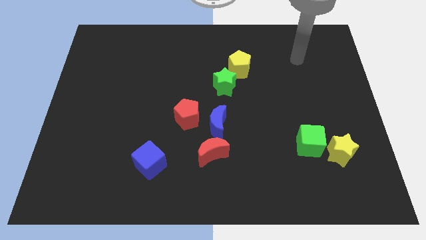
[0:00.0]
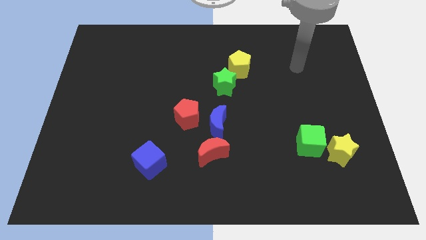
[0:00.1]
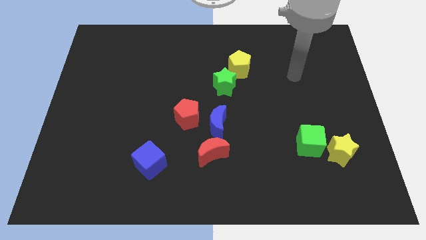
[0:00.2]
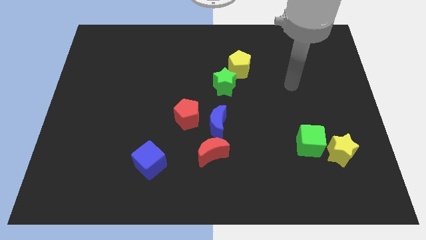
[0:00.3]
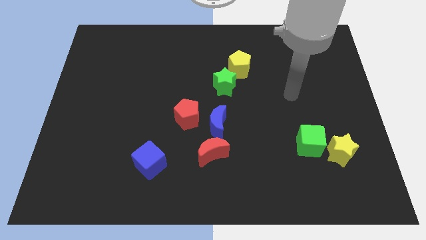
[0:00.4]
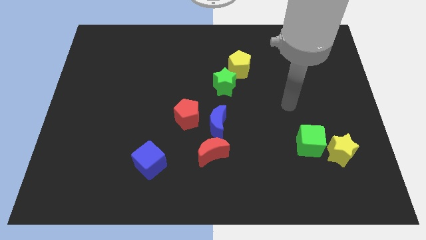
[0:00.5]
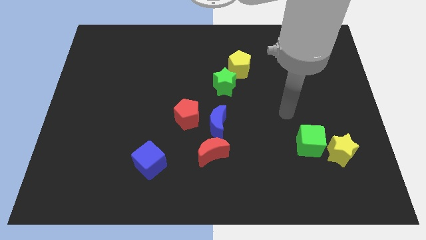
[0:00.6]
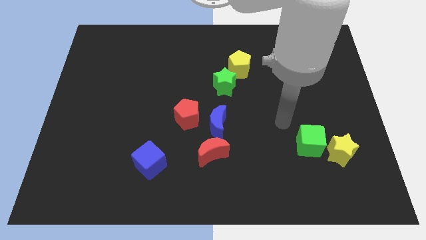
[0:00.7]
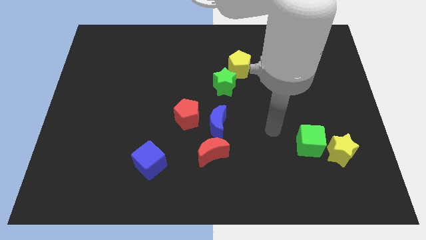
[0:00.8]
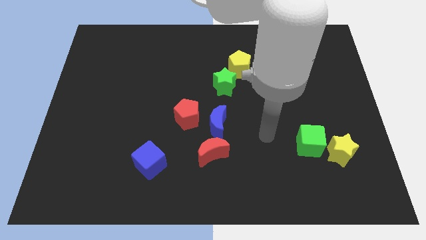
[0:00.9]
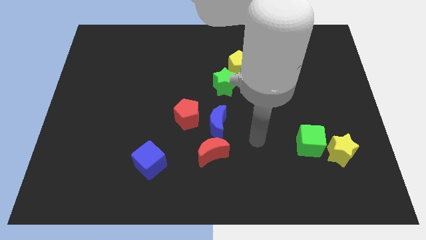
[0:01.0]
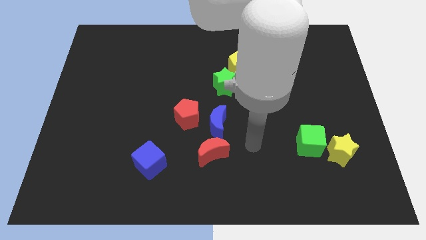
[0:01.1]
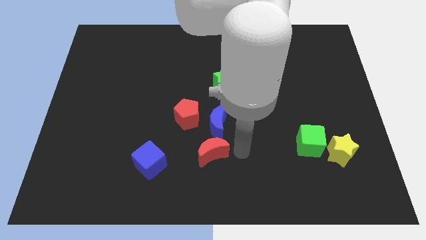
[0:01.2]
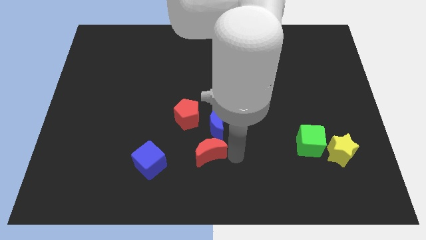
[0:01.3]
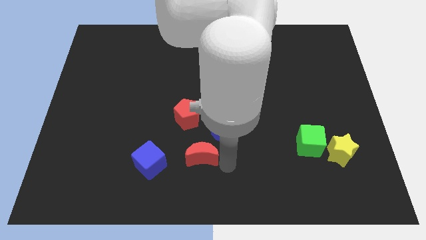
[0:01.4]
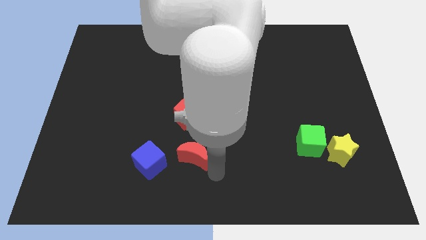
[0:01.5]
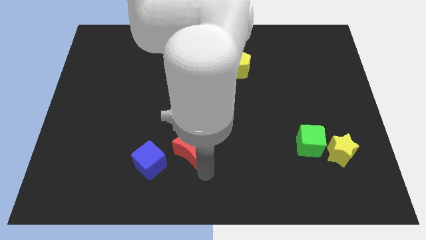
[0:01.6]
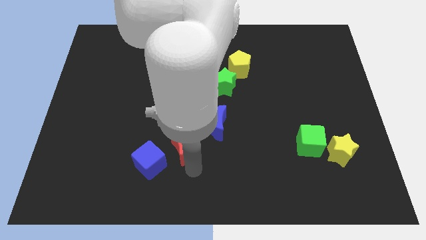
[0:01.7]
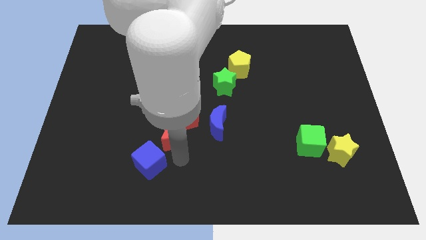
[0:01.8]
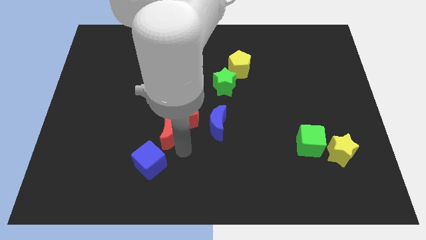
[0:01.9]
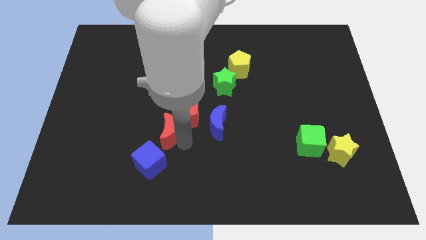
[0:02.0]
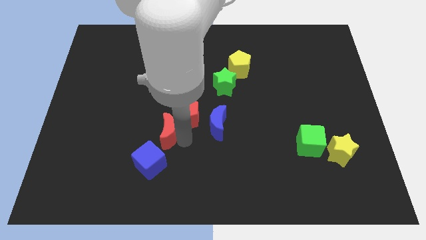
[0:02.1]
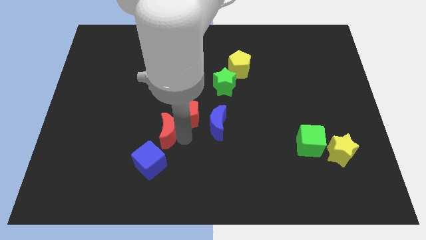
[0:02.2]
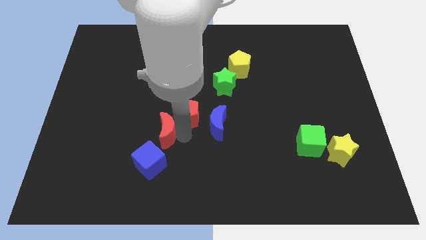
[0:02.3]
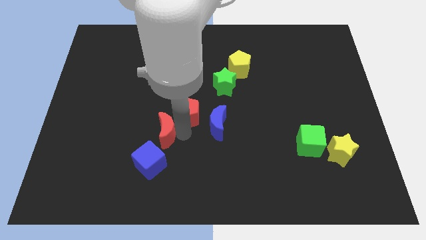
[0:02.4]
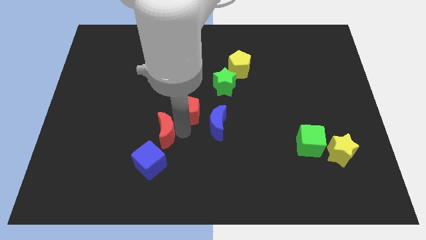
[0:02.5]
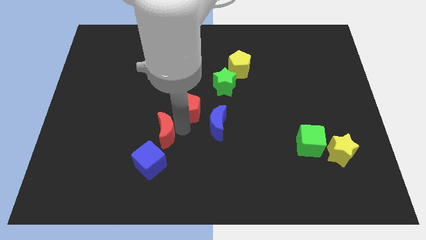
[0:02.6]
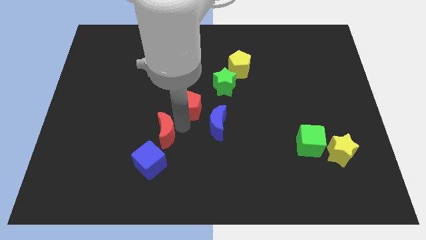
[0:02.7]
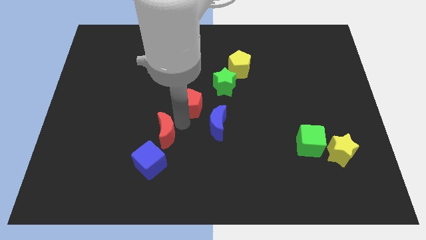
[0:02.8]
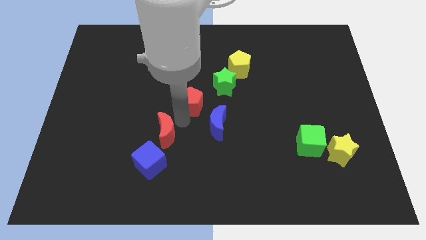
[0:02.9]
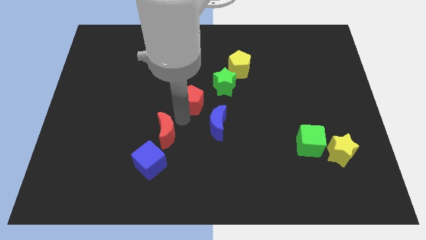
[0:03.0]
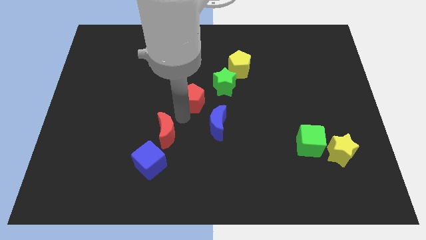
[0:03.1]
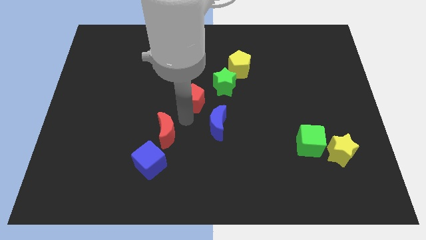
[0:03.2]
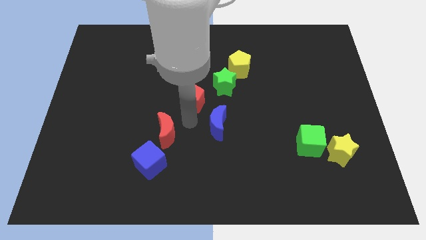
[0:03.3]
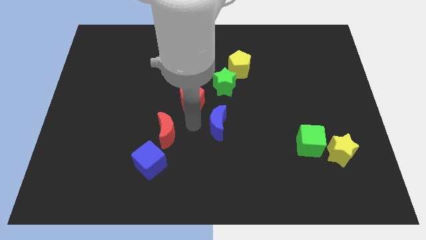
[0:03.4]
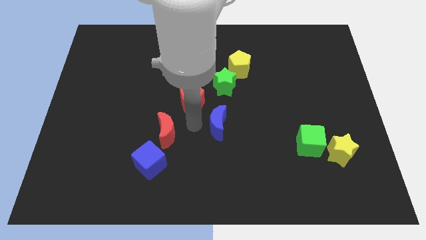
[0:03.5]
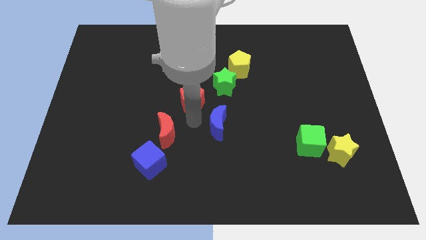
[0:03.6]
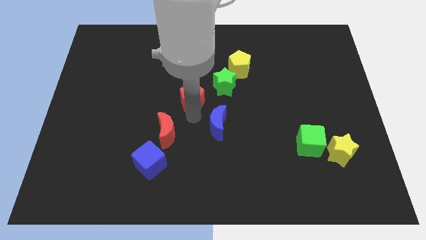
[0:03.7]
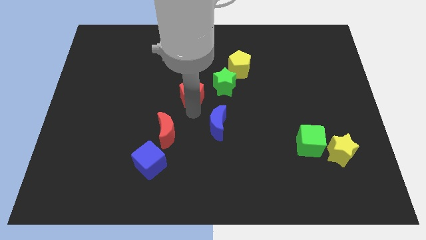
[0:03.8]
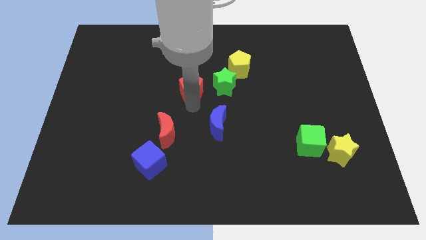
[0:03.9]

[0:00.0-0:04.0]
slide the red pentagon a little bit up

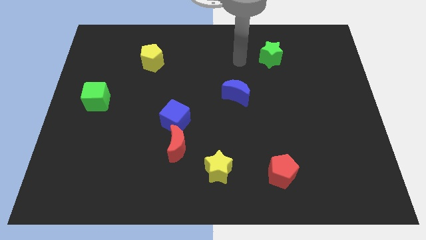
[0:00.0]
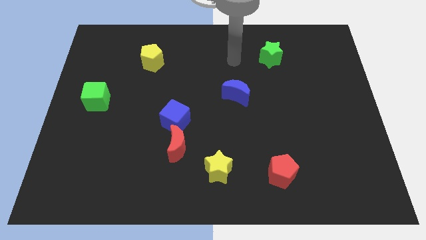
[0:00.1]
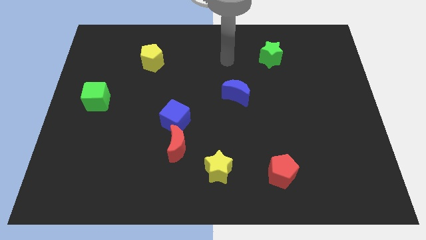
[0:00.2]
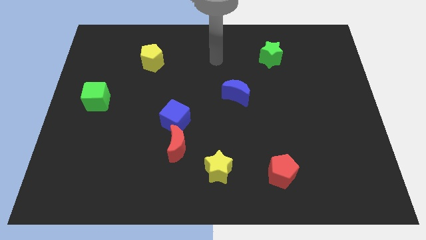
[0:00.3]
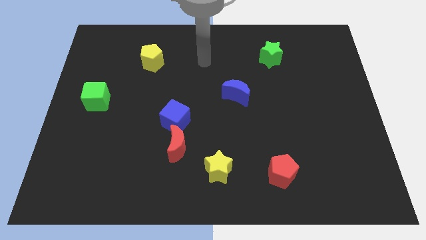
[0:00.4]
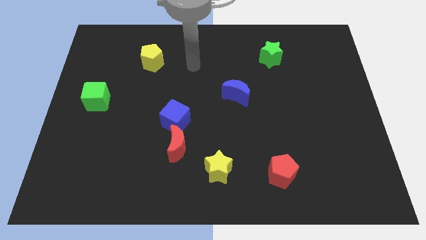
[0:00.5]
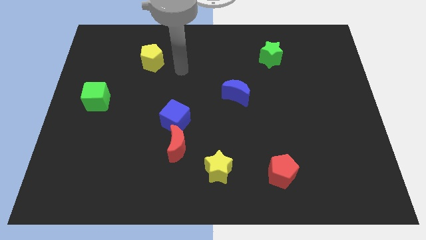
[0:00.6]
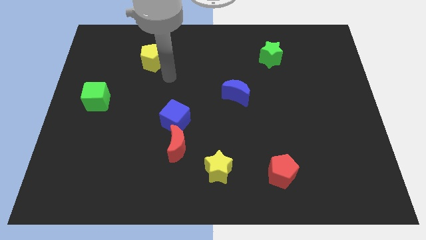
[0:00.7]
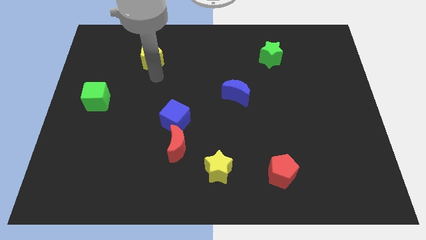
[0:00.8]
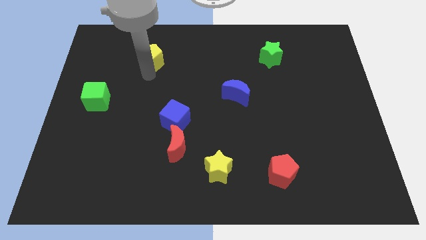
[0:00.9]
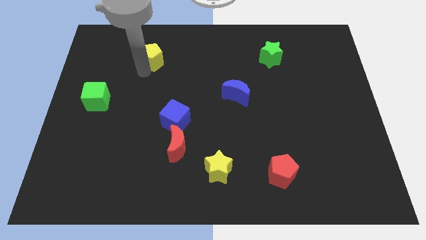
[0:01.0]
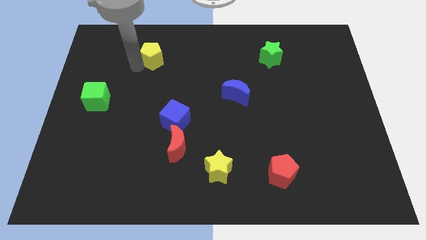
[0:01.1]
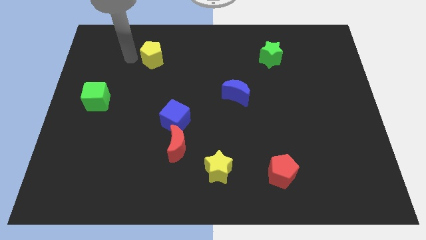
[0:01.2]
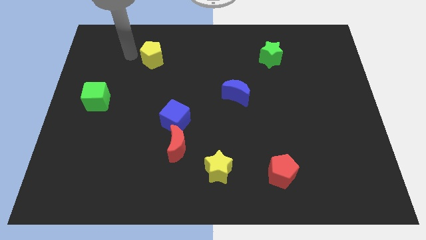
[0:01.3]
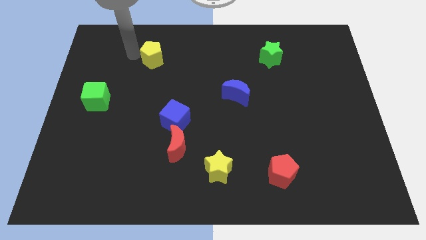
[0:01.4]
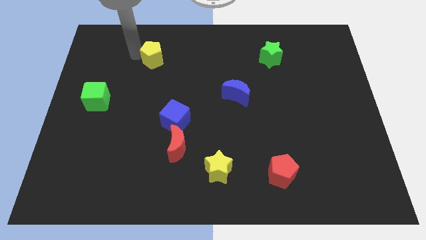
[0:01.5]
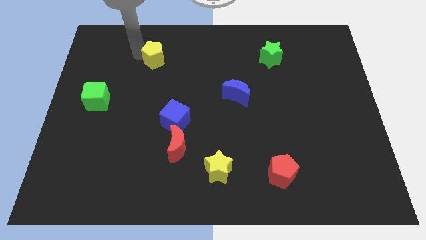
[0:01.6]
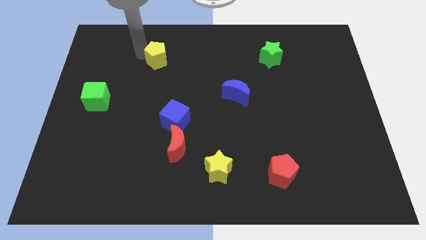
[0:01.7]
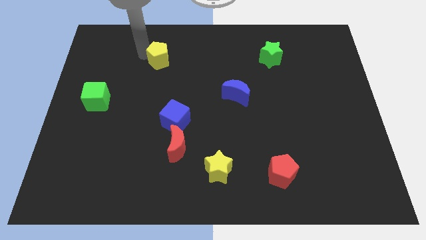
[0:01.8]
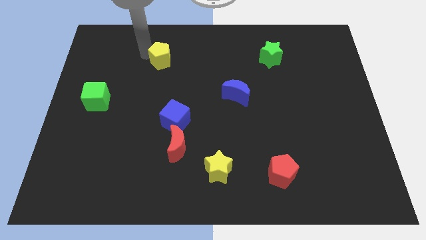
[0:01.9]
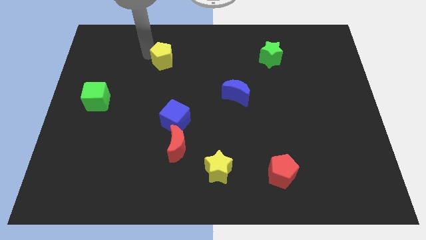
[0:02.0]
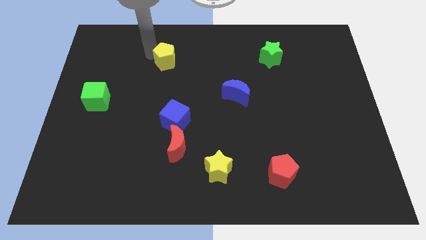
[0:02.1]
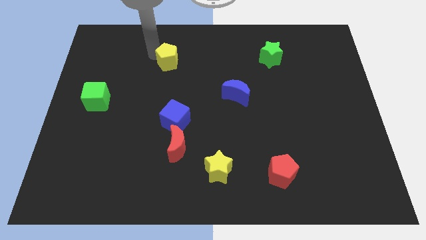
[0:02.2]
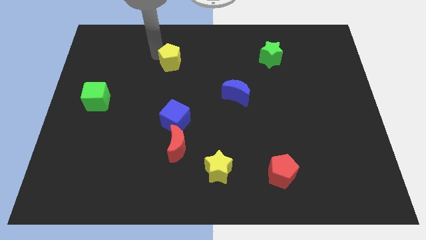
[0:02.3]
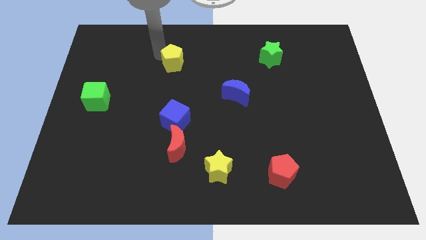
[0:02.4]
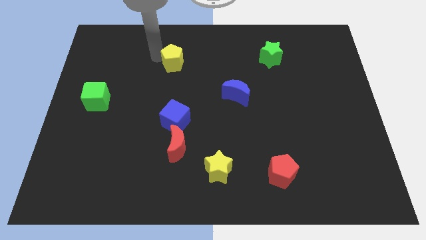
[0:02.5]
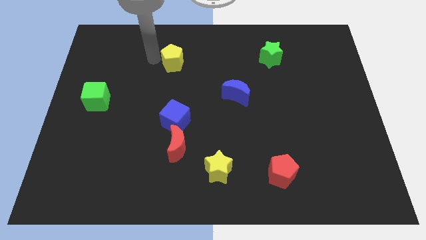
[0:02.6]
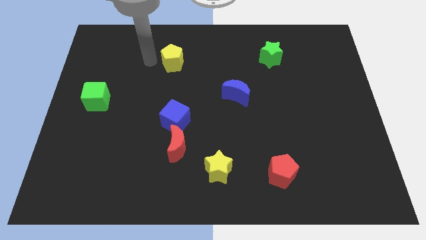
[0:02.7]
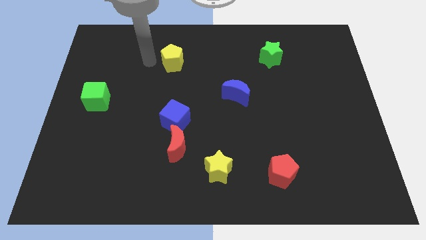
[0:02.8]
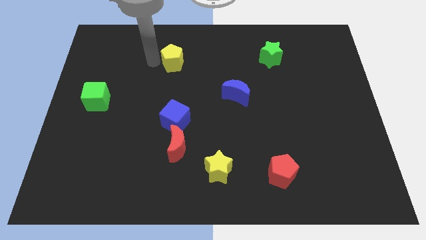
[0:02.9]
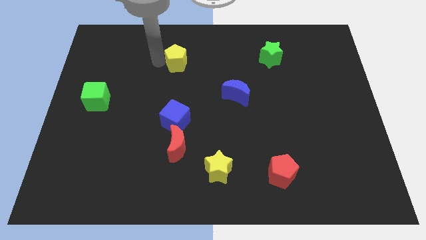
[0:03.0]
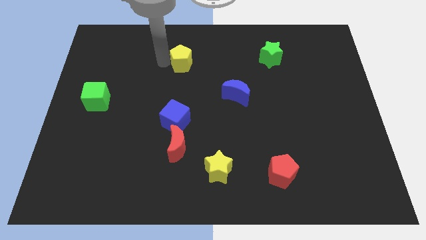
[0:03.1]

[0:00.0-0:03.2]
slide the yellow pentagon right a little bit

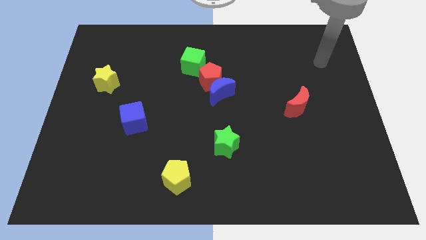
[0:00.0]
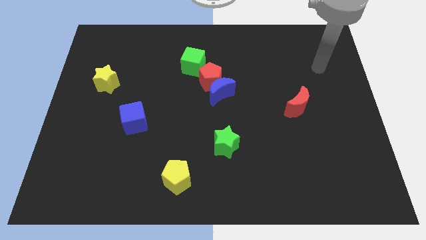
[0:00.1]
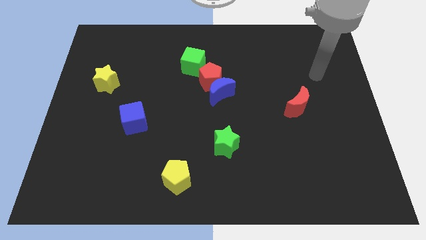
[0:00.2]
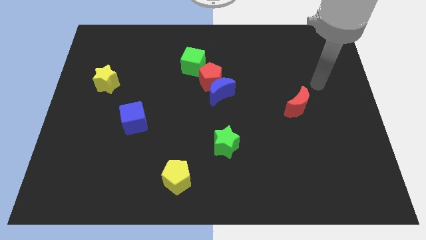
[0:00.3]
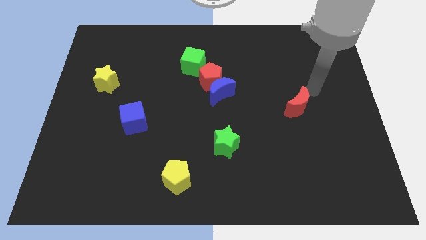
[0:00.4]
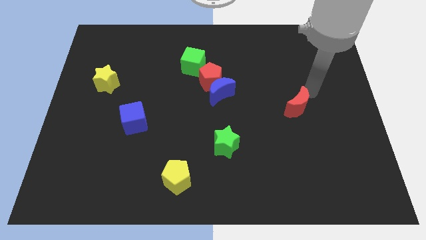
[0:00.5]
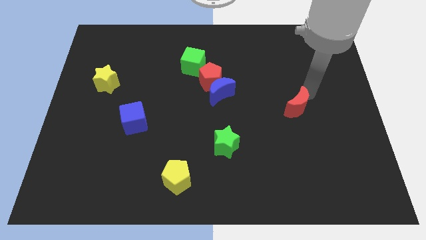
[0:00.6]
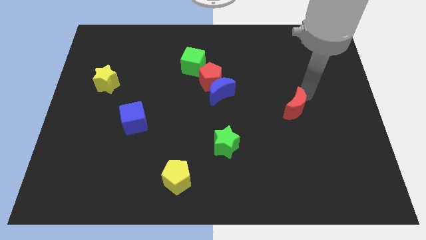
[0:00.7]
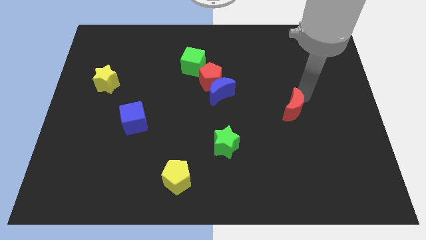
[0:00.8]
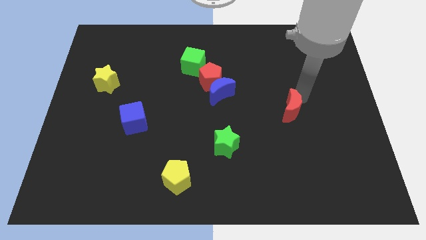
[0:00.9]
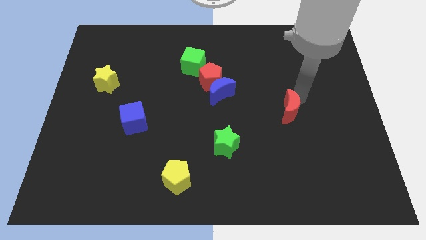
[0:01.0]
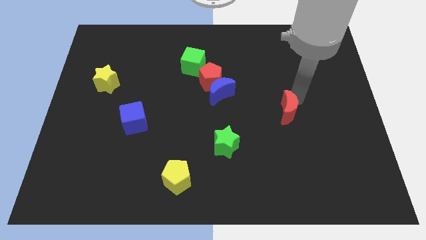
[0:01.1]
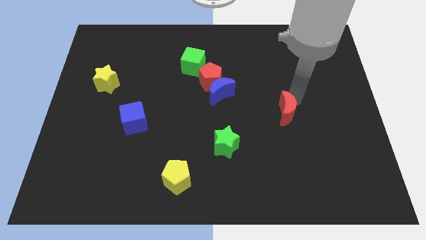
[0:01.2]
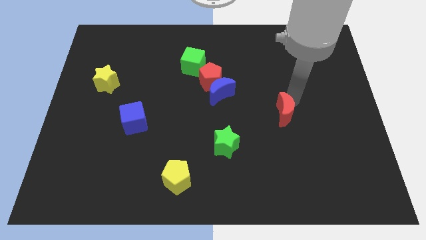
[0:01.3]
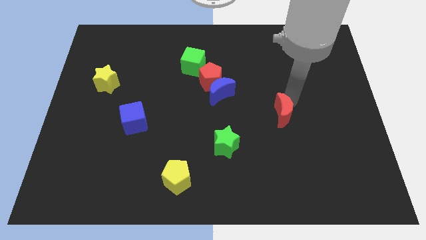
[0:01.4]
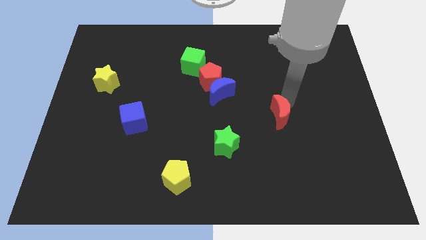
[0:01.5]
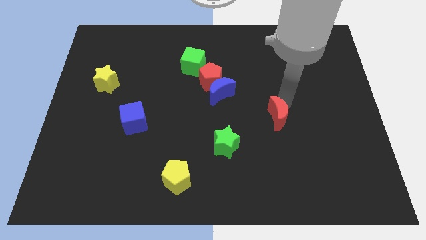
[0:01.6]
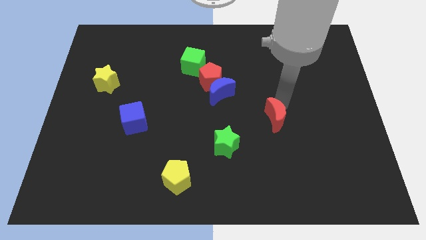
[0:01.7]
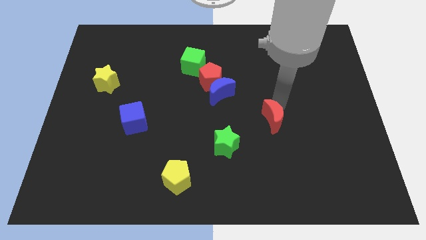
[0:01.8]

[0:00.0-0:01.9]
slide the red moon diagonally down and left a bit
